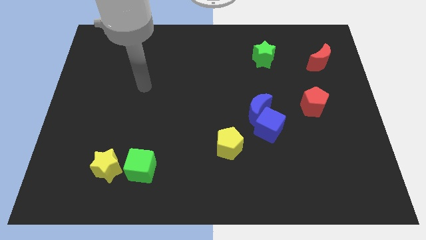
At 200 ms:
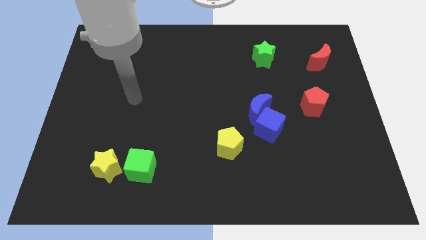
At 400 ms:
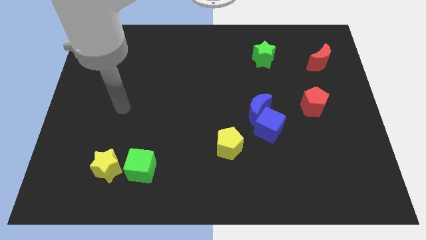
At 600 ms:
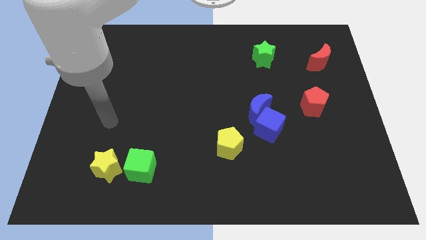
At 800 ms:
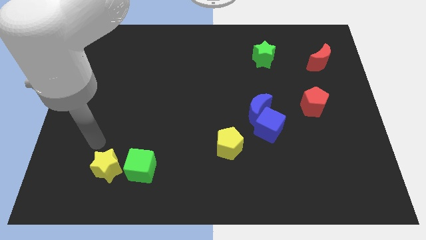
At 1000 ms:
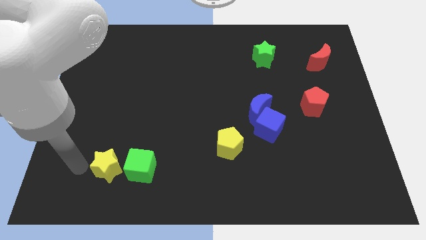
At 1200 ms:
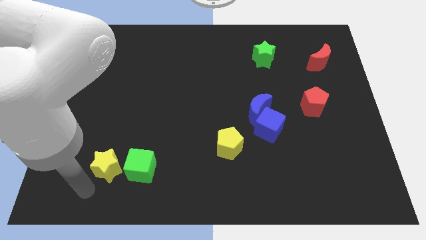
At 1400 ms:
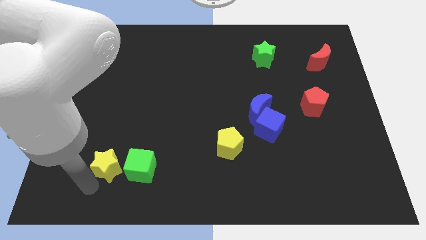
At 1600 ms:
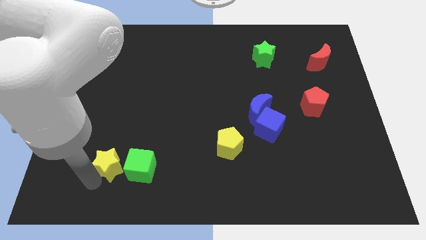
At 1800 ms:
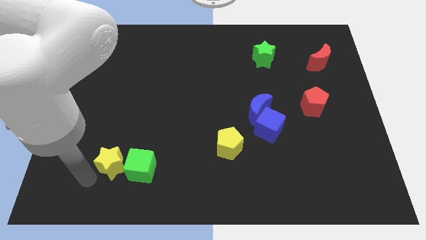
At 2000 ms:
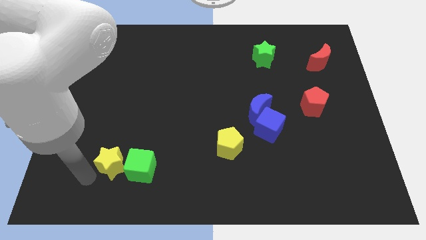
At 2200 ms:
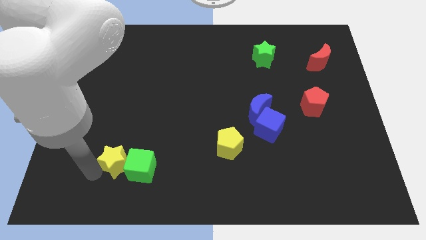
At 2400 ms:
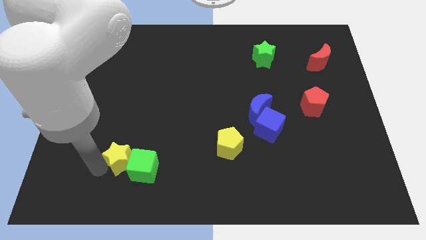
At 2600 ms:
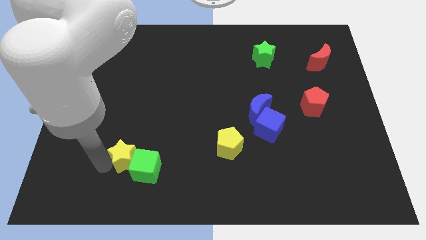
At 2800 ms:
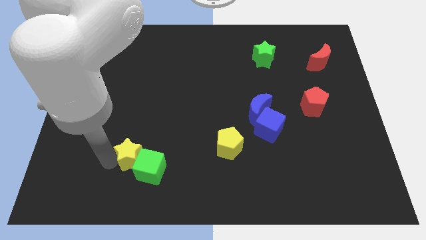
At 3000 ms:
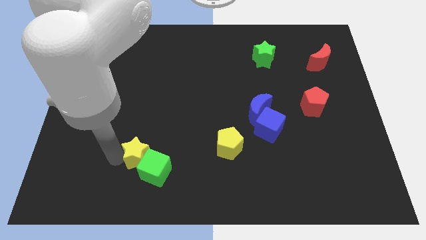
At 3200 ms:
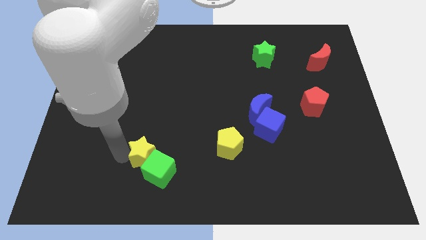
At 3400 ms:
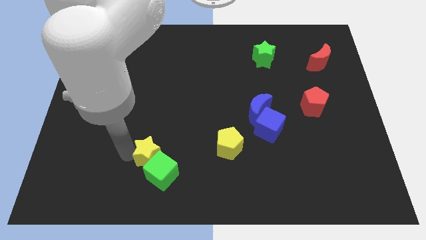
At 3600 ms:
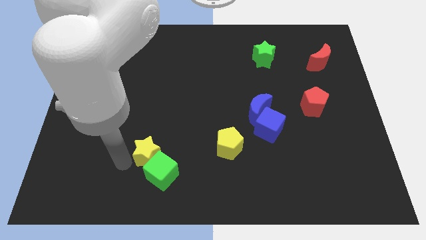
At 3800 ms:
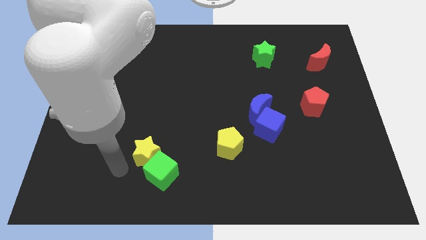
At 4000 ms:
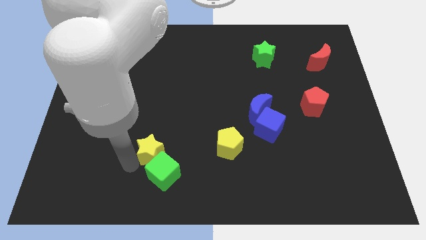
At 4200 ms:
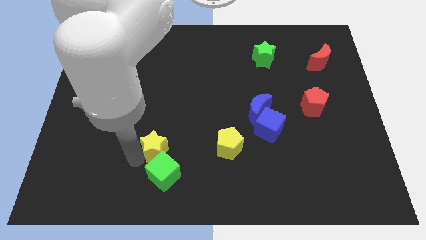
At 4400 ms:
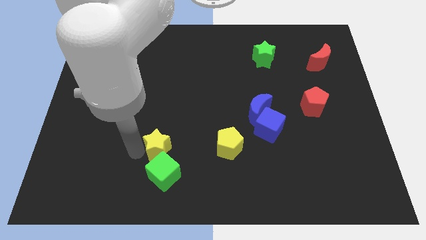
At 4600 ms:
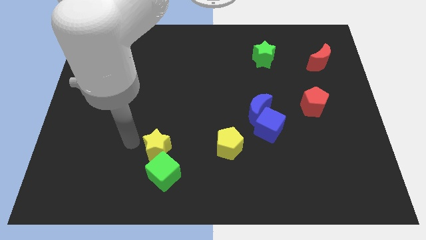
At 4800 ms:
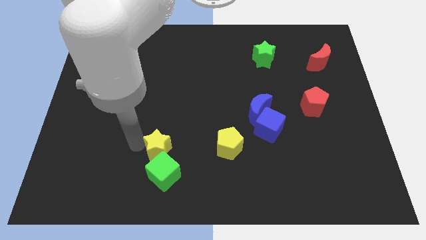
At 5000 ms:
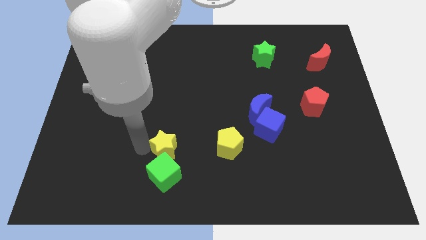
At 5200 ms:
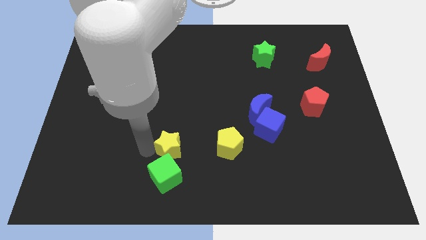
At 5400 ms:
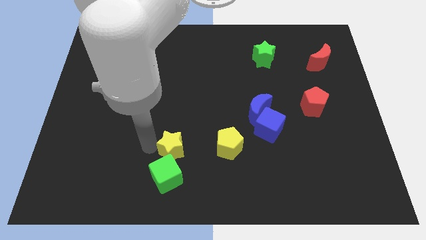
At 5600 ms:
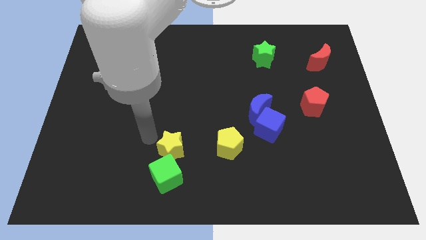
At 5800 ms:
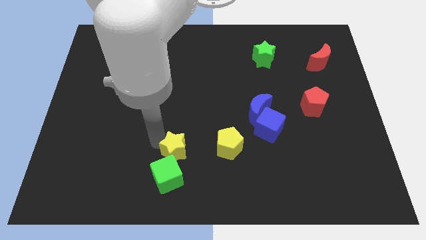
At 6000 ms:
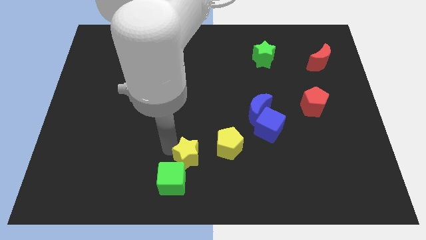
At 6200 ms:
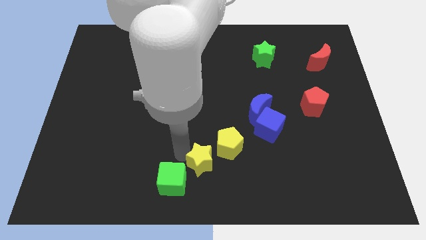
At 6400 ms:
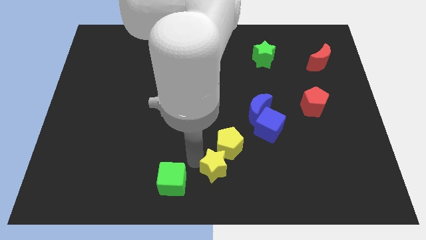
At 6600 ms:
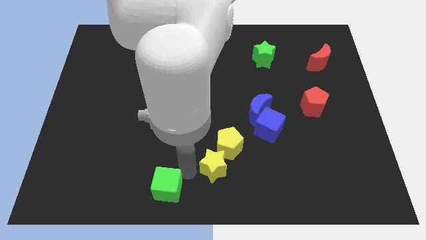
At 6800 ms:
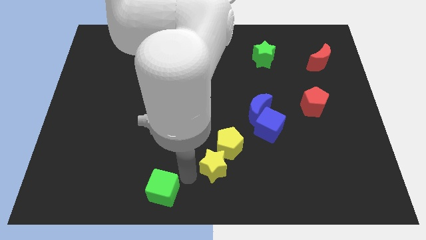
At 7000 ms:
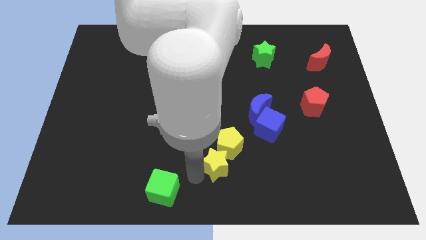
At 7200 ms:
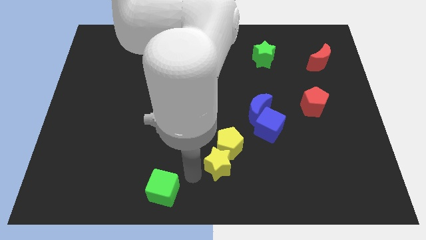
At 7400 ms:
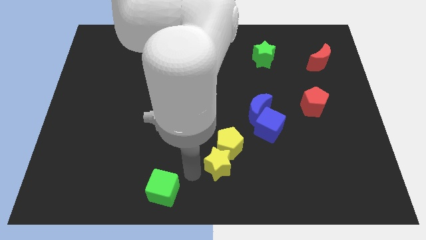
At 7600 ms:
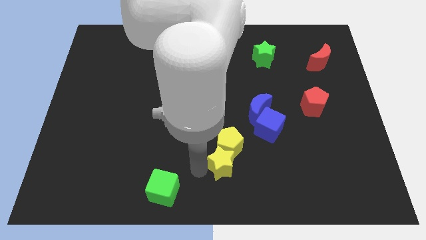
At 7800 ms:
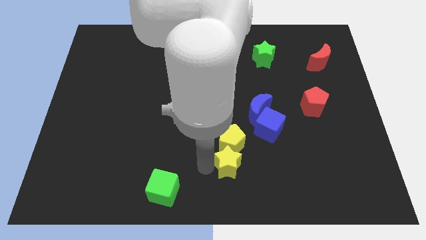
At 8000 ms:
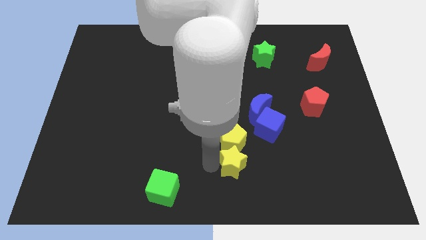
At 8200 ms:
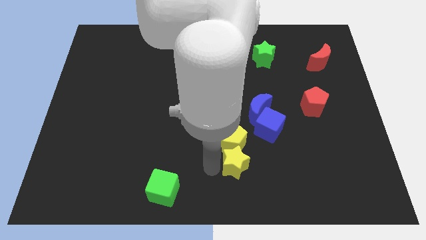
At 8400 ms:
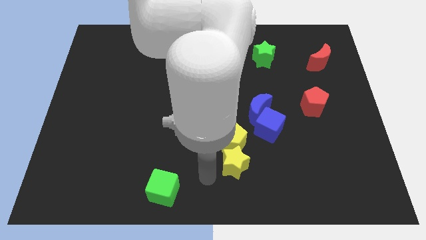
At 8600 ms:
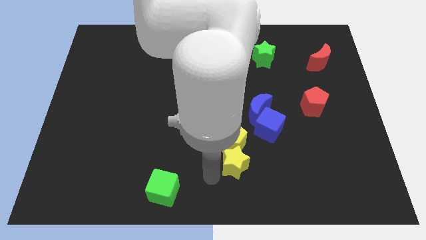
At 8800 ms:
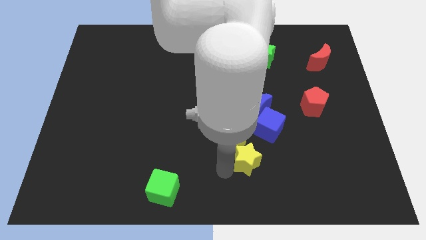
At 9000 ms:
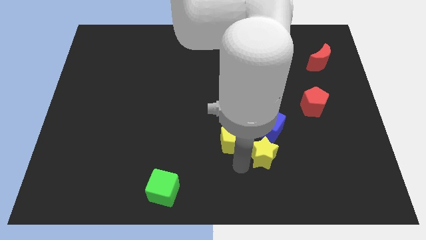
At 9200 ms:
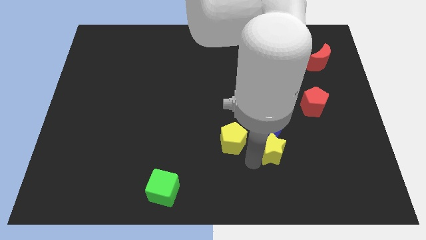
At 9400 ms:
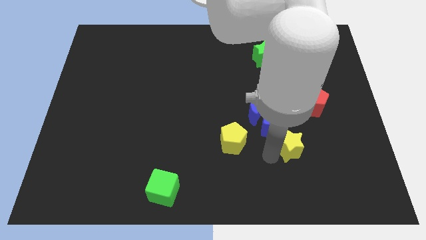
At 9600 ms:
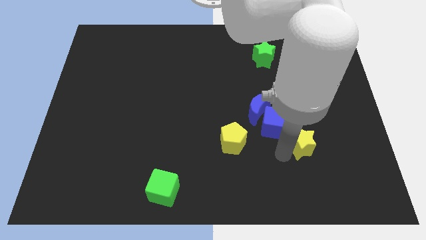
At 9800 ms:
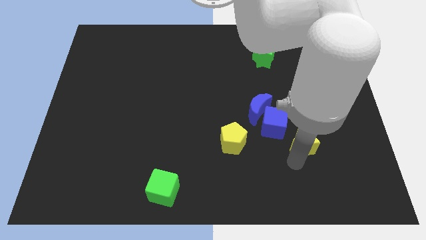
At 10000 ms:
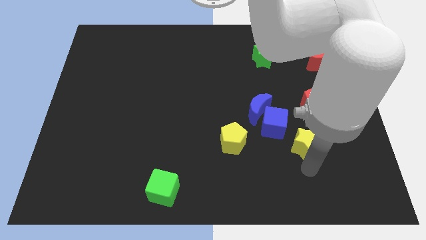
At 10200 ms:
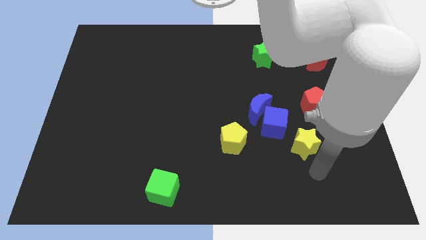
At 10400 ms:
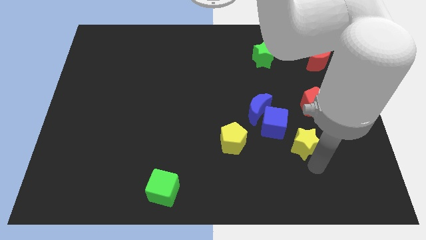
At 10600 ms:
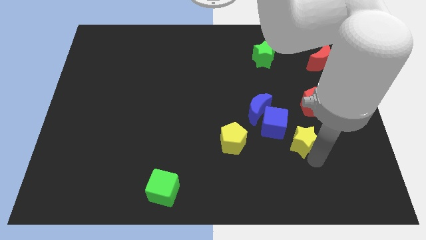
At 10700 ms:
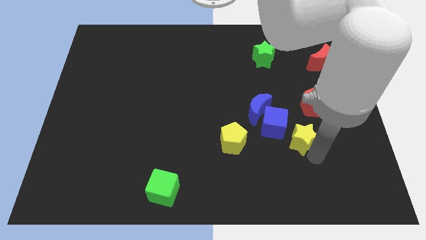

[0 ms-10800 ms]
move the yellow star to the bottom left of the red pentagon

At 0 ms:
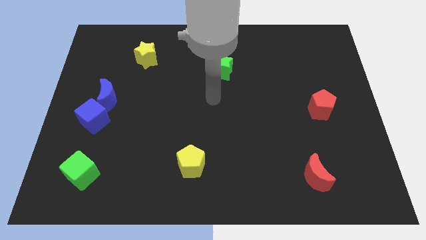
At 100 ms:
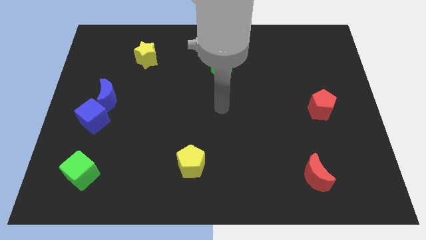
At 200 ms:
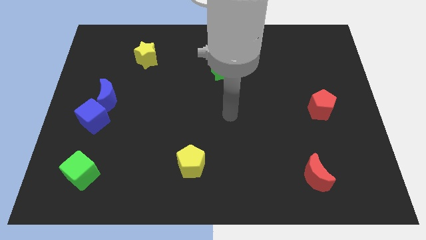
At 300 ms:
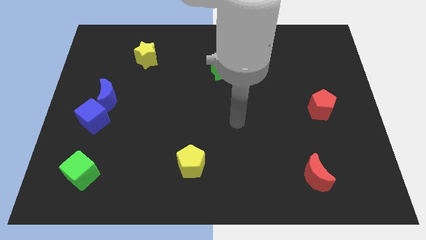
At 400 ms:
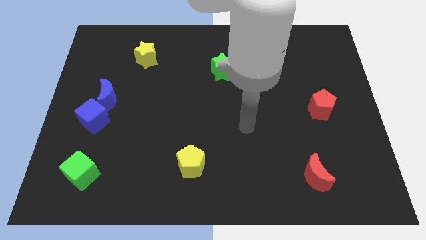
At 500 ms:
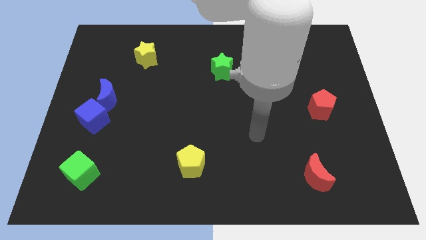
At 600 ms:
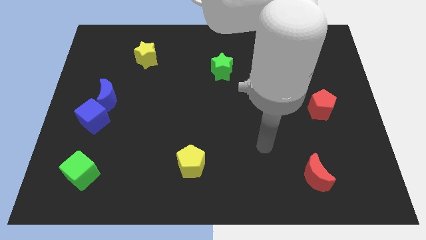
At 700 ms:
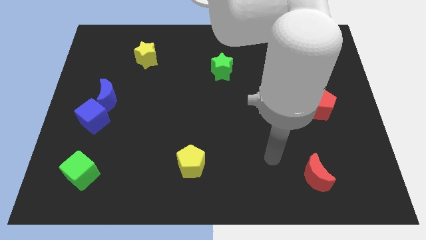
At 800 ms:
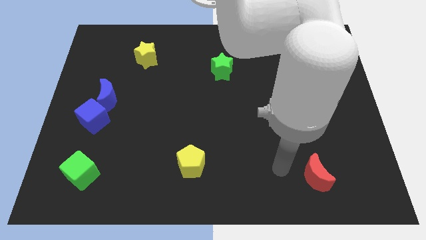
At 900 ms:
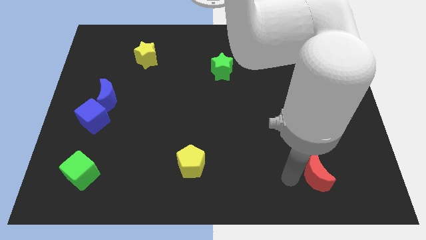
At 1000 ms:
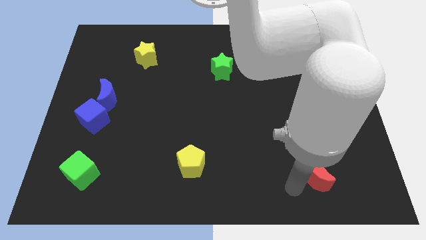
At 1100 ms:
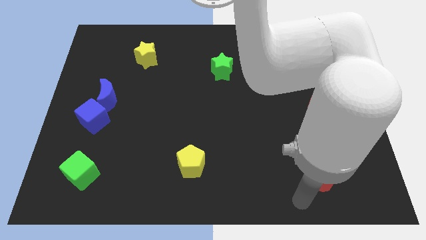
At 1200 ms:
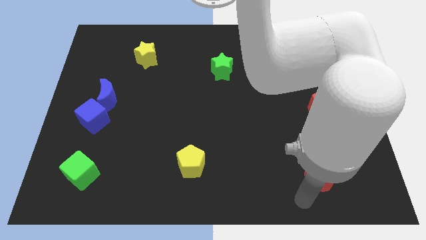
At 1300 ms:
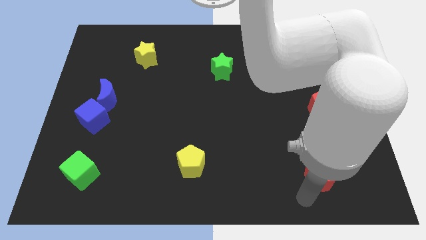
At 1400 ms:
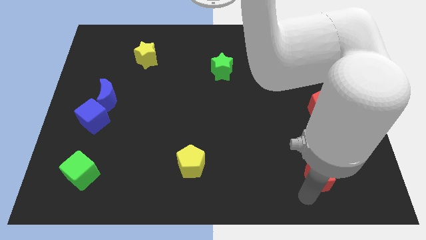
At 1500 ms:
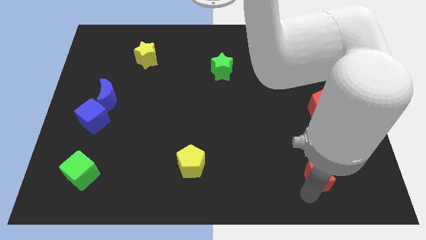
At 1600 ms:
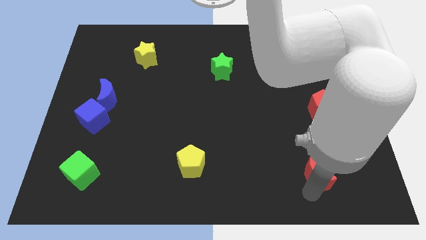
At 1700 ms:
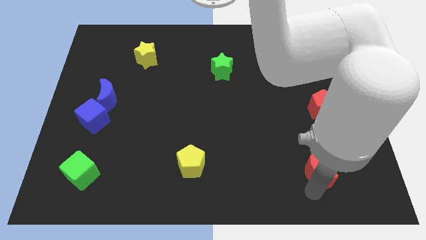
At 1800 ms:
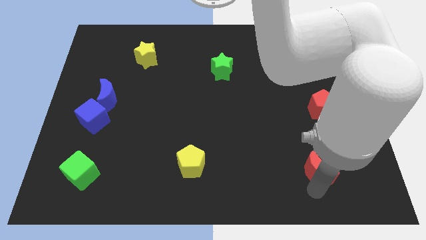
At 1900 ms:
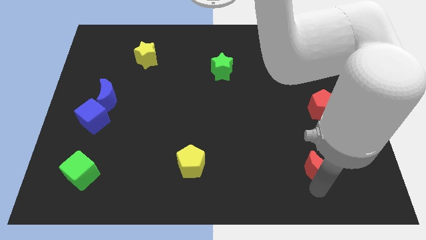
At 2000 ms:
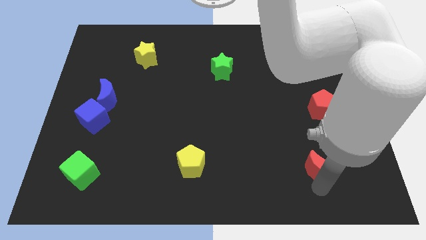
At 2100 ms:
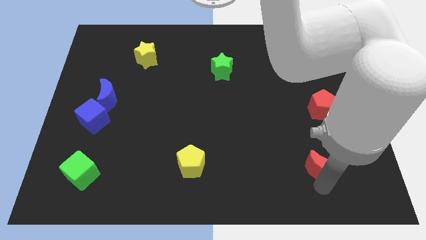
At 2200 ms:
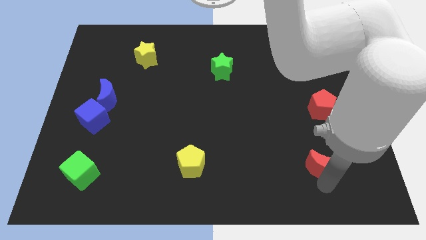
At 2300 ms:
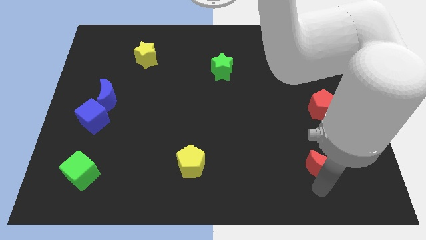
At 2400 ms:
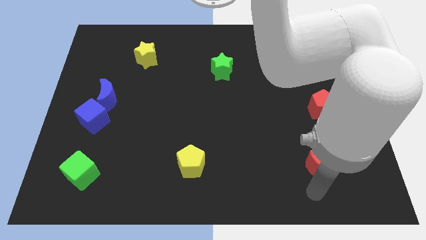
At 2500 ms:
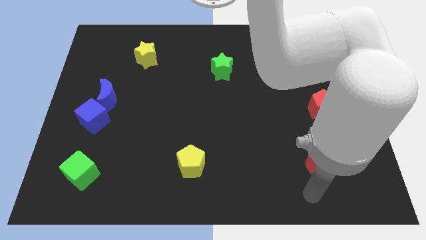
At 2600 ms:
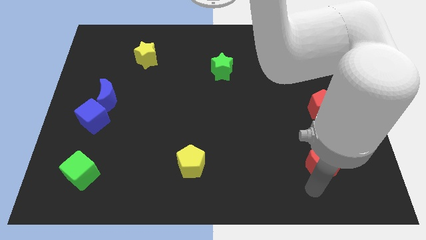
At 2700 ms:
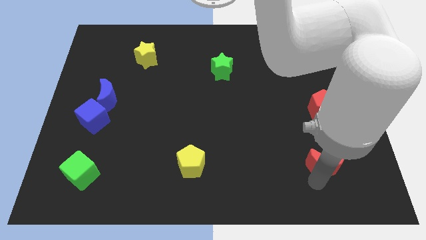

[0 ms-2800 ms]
move the red moon below the red pentagon
